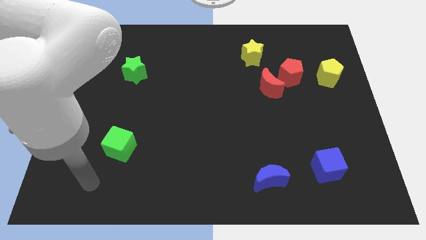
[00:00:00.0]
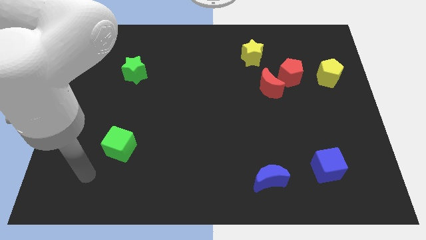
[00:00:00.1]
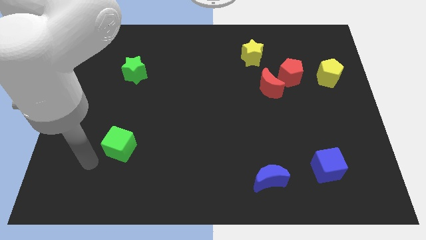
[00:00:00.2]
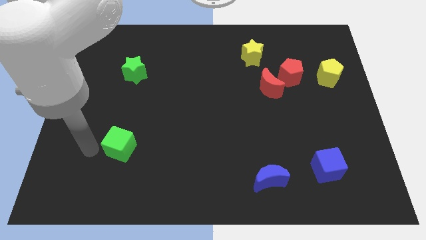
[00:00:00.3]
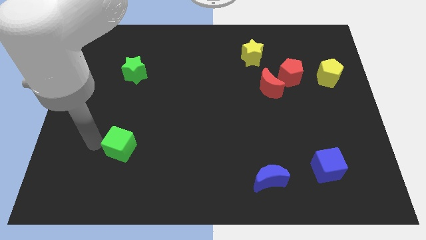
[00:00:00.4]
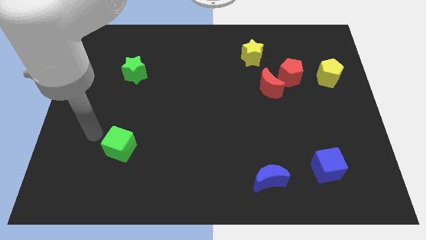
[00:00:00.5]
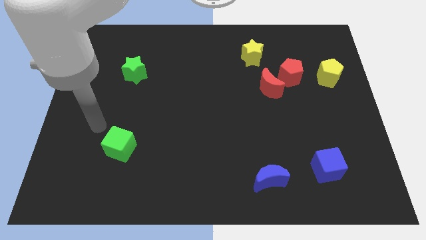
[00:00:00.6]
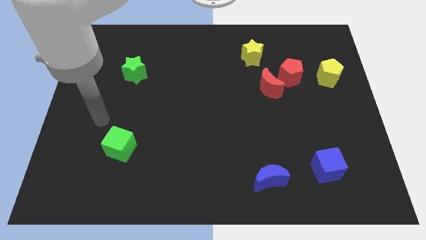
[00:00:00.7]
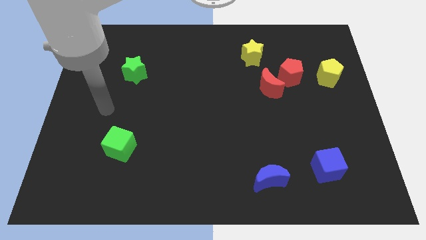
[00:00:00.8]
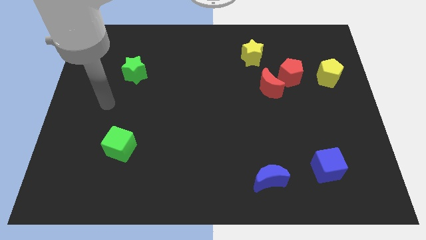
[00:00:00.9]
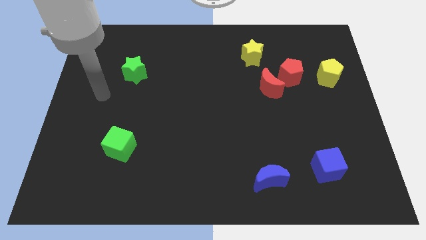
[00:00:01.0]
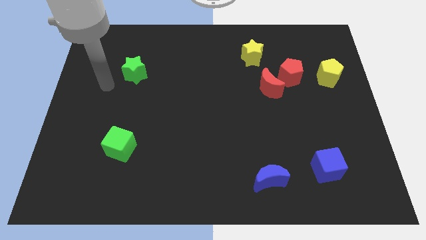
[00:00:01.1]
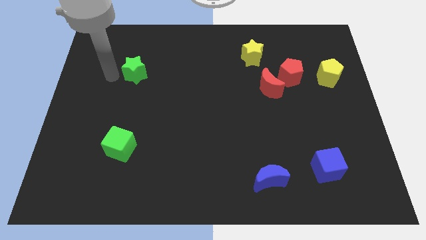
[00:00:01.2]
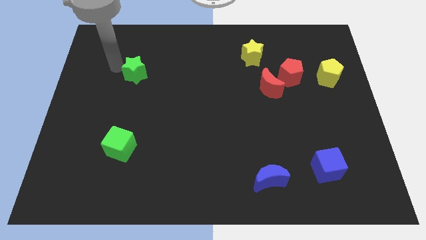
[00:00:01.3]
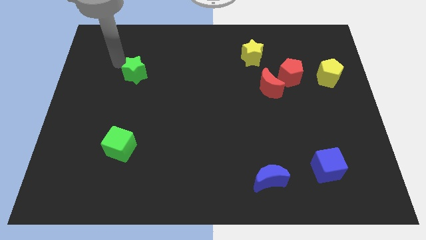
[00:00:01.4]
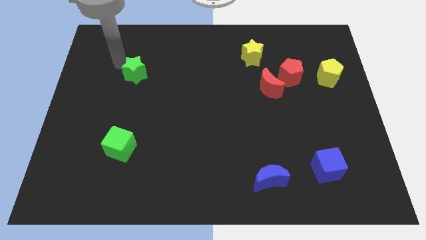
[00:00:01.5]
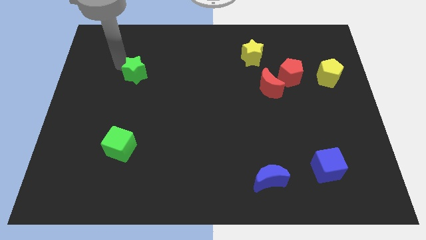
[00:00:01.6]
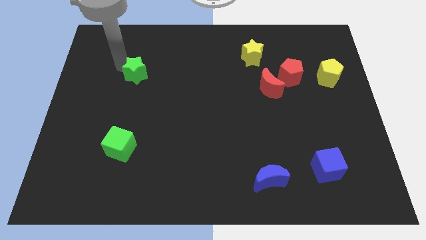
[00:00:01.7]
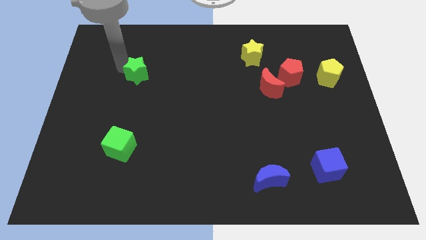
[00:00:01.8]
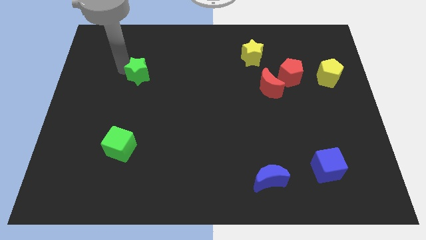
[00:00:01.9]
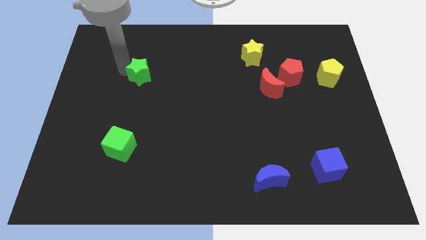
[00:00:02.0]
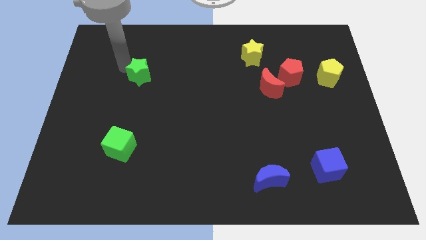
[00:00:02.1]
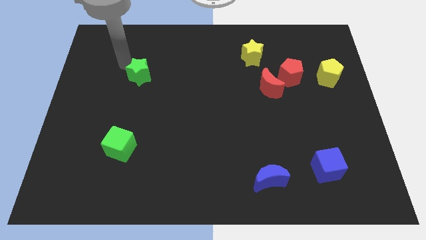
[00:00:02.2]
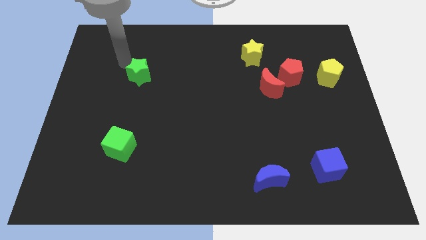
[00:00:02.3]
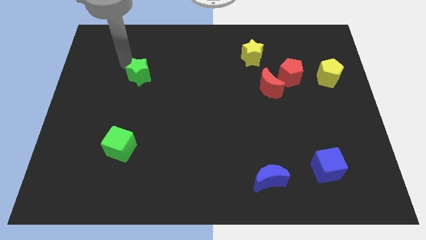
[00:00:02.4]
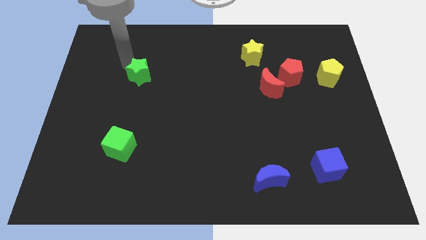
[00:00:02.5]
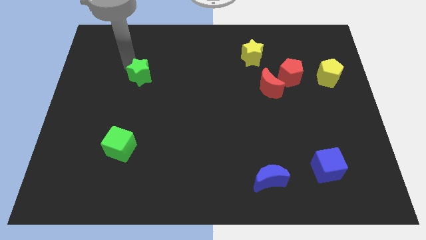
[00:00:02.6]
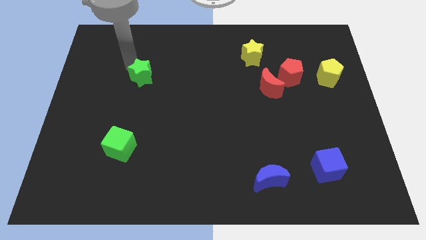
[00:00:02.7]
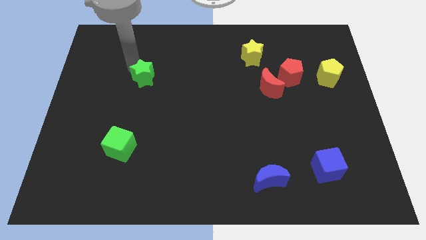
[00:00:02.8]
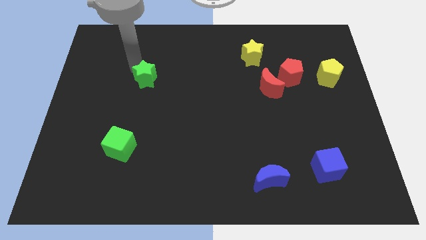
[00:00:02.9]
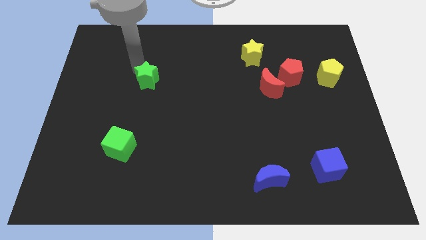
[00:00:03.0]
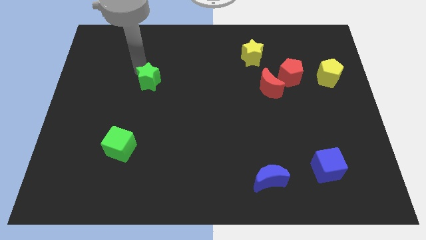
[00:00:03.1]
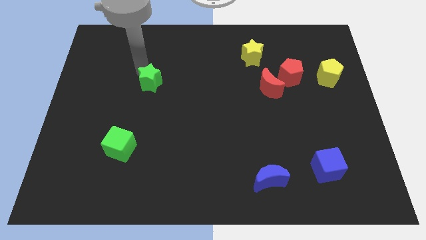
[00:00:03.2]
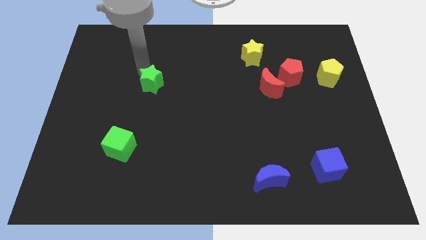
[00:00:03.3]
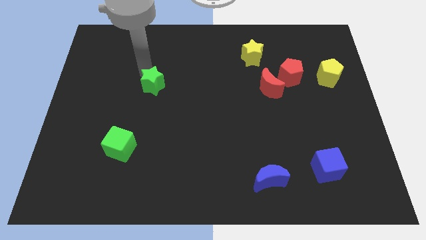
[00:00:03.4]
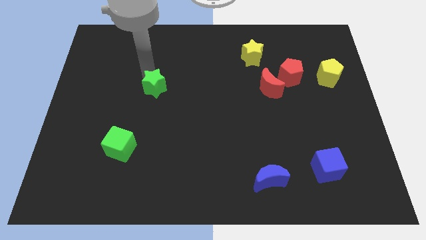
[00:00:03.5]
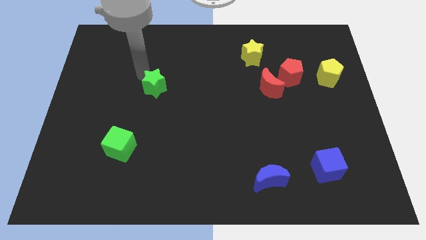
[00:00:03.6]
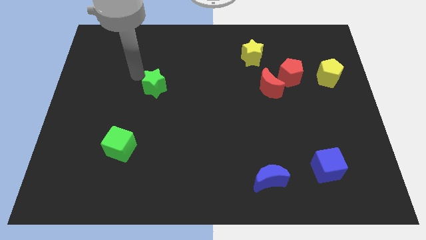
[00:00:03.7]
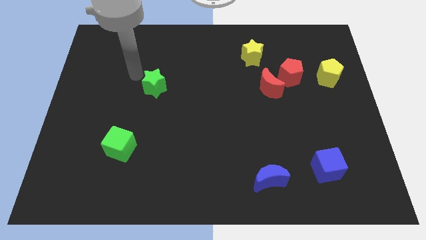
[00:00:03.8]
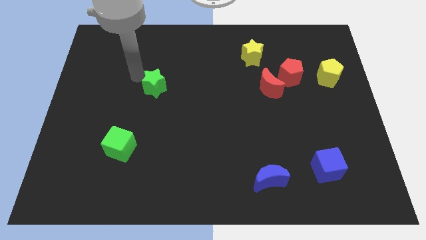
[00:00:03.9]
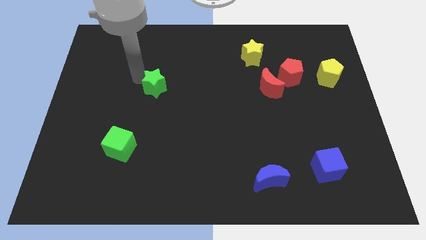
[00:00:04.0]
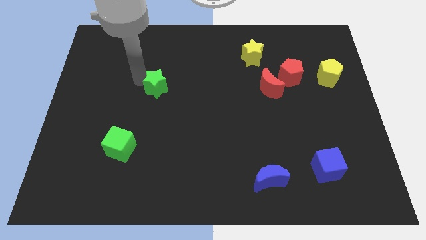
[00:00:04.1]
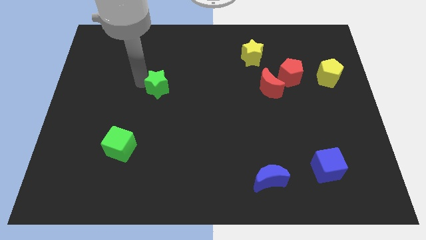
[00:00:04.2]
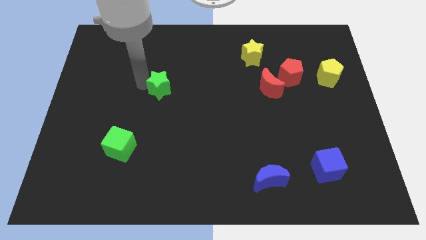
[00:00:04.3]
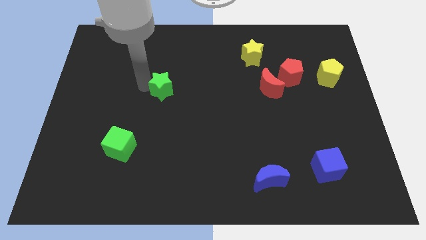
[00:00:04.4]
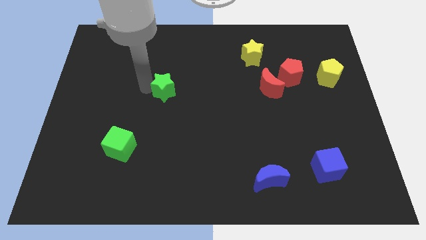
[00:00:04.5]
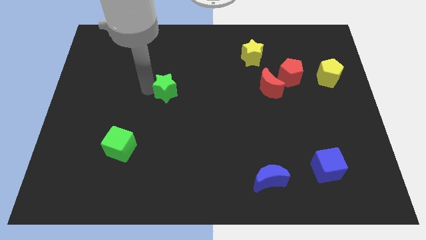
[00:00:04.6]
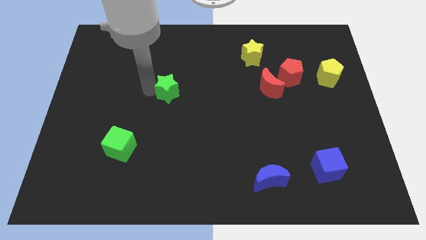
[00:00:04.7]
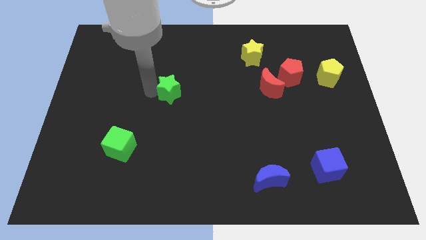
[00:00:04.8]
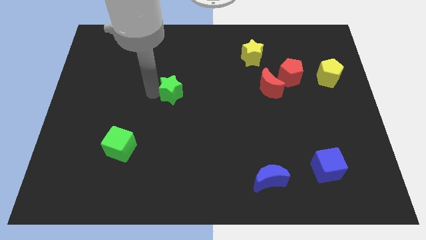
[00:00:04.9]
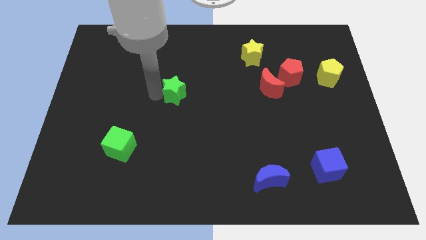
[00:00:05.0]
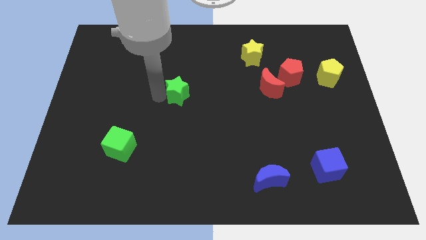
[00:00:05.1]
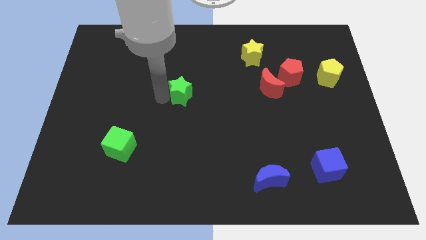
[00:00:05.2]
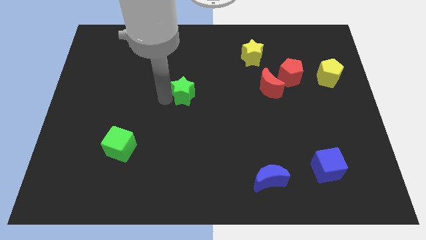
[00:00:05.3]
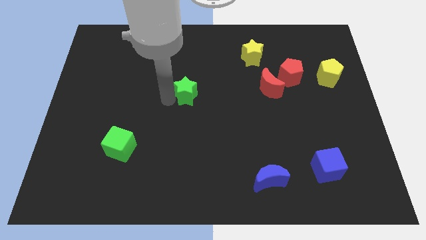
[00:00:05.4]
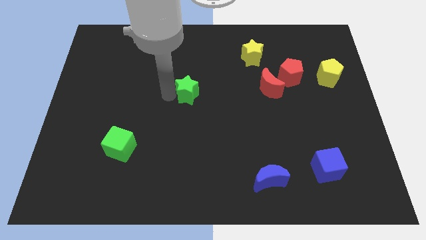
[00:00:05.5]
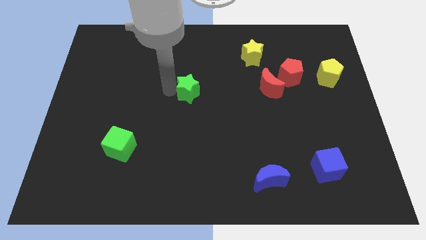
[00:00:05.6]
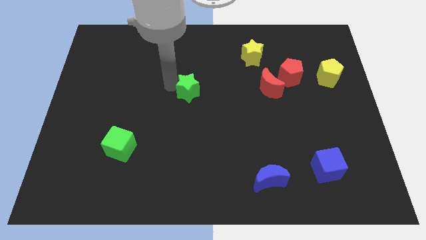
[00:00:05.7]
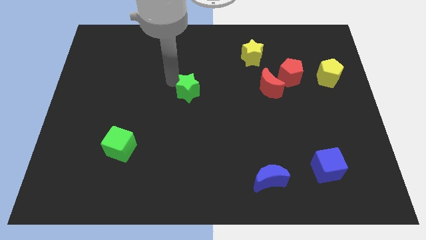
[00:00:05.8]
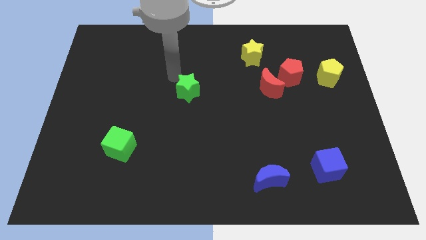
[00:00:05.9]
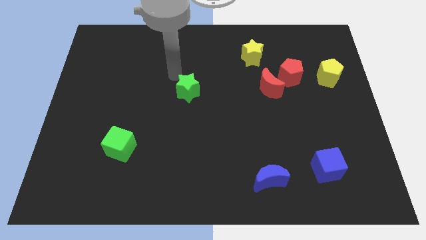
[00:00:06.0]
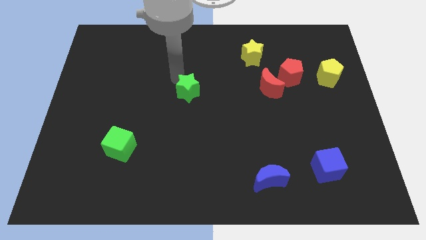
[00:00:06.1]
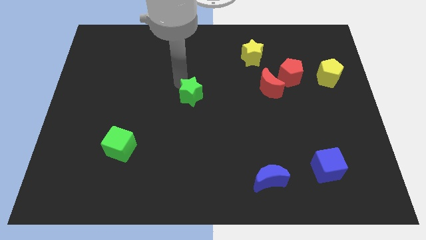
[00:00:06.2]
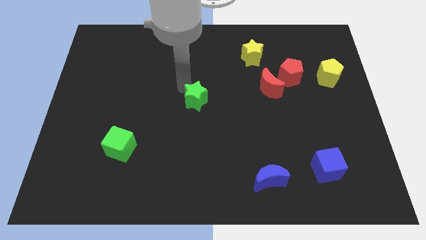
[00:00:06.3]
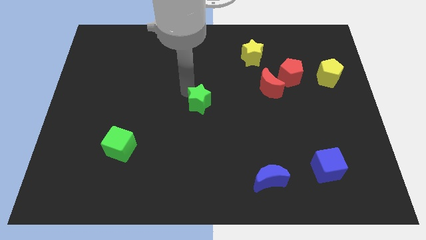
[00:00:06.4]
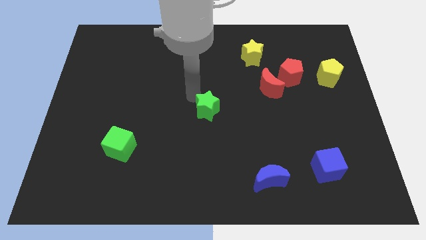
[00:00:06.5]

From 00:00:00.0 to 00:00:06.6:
move the green star downwards and right diagonally

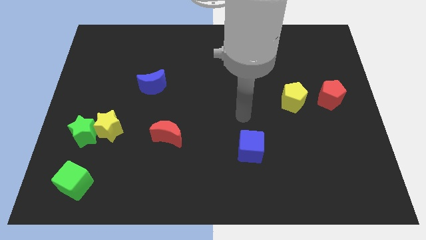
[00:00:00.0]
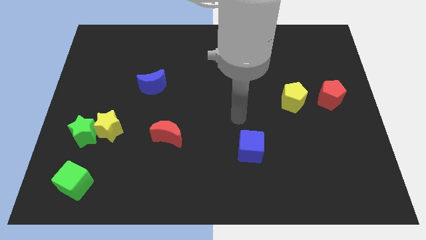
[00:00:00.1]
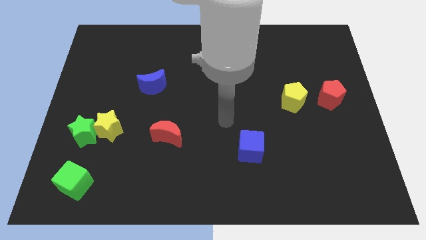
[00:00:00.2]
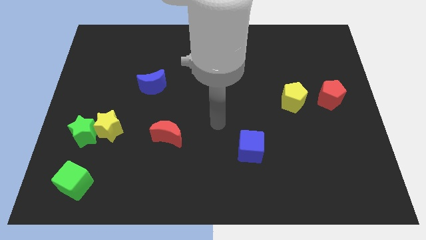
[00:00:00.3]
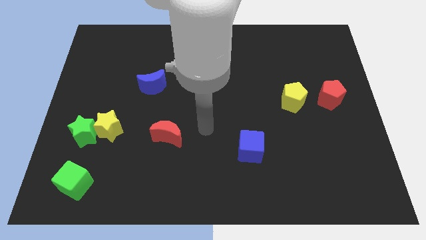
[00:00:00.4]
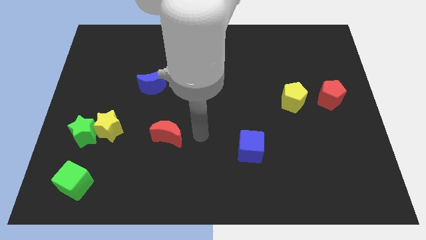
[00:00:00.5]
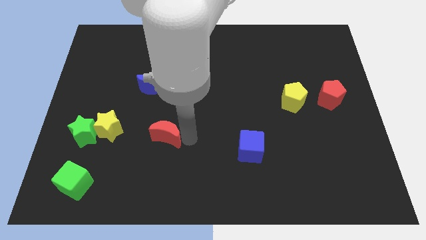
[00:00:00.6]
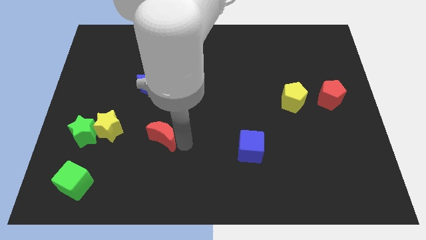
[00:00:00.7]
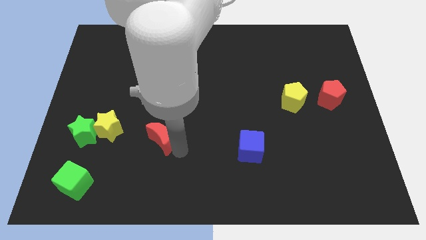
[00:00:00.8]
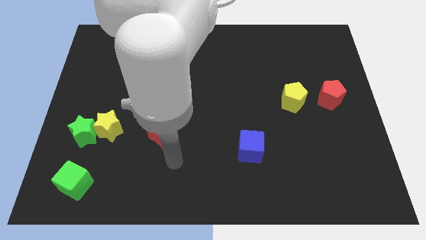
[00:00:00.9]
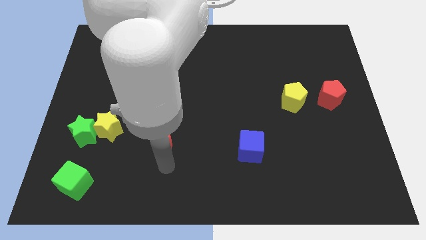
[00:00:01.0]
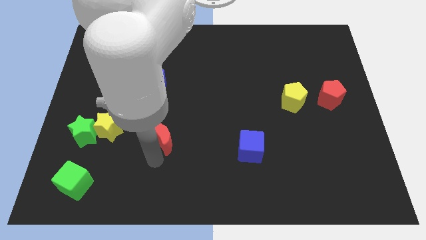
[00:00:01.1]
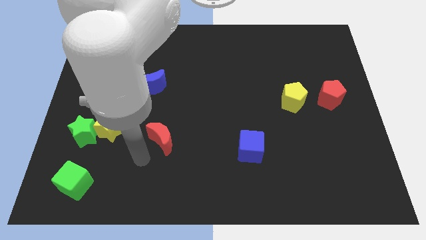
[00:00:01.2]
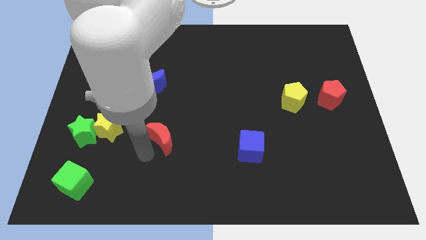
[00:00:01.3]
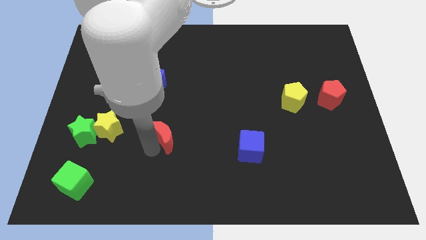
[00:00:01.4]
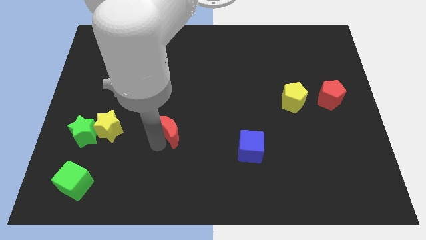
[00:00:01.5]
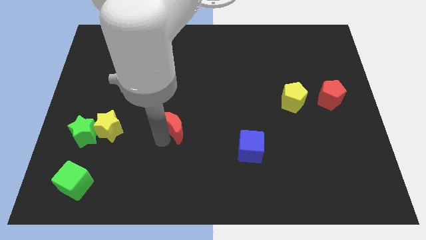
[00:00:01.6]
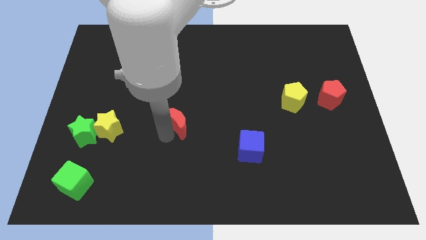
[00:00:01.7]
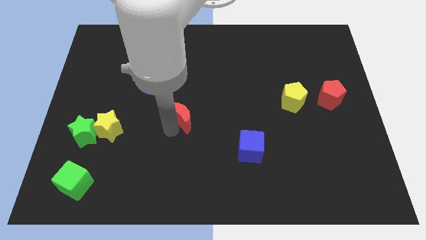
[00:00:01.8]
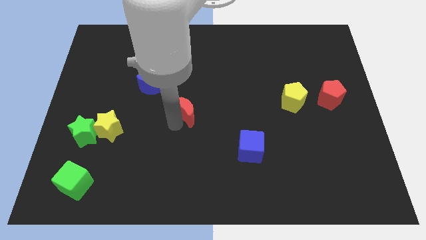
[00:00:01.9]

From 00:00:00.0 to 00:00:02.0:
slightly push the red moon upwards and right diagonally
